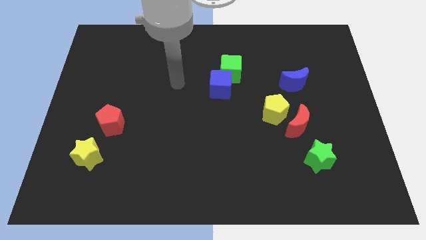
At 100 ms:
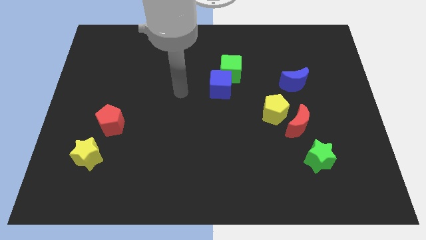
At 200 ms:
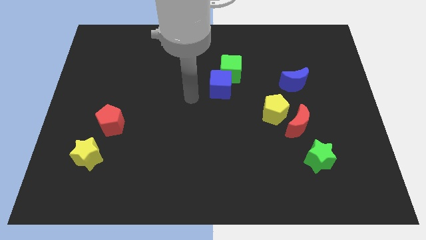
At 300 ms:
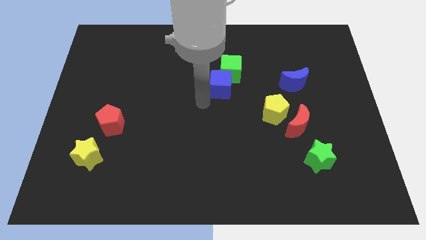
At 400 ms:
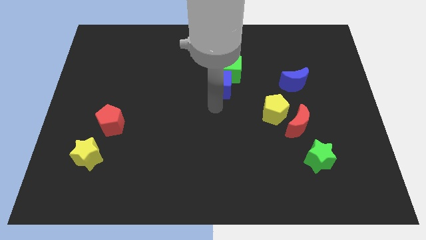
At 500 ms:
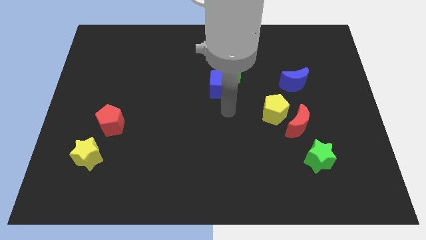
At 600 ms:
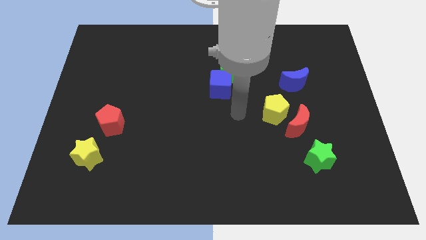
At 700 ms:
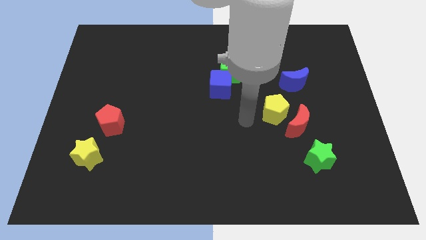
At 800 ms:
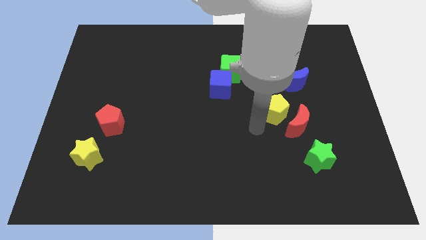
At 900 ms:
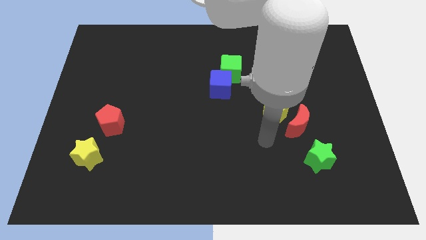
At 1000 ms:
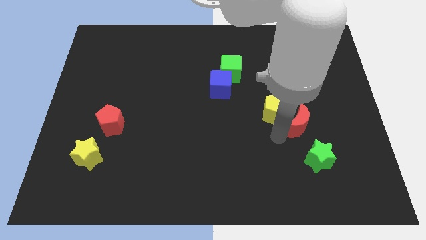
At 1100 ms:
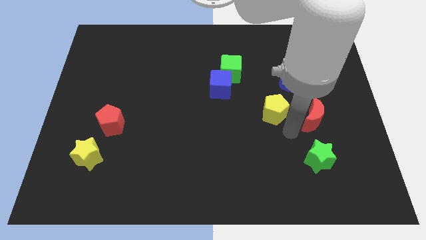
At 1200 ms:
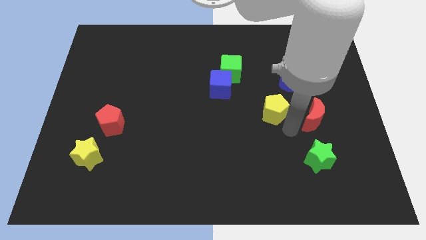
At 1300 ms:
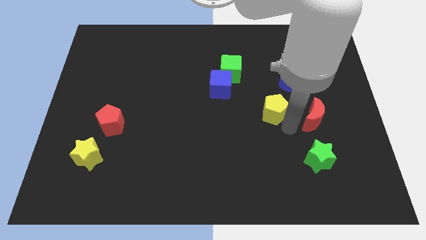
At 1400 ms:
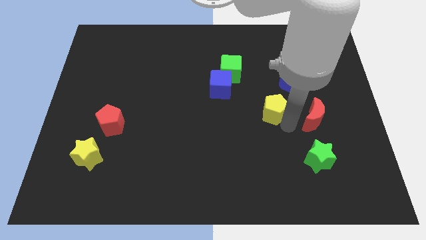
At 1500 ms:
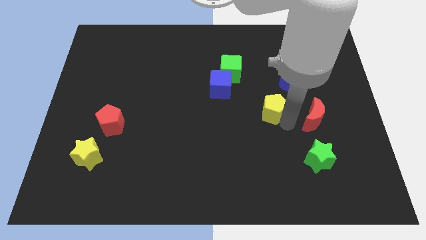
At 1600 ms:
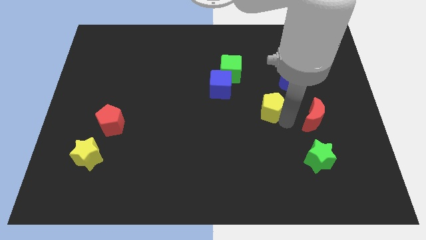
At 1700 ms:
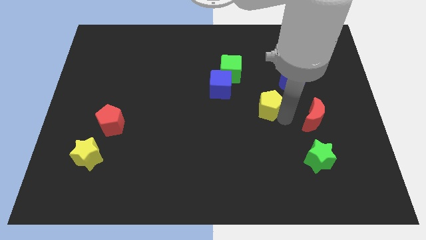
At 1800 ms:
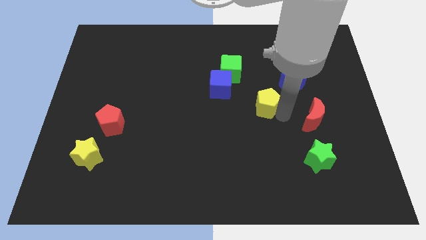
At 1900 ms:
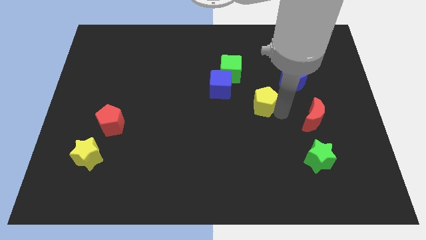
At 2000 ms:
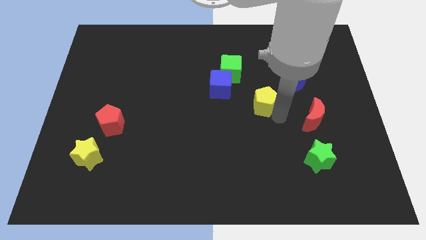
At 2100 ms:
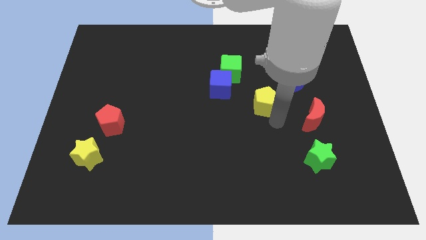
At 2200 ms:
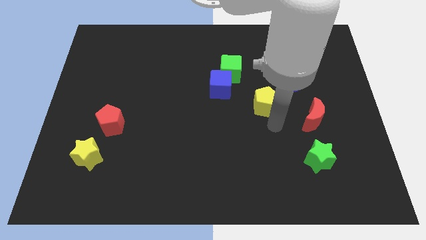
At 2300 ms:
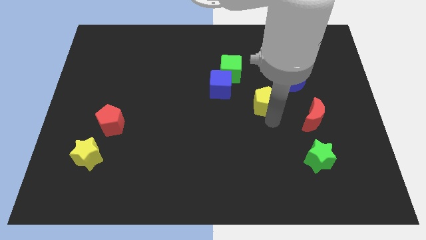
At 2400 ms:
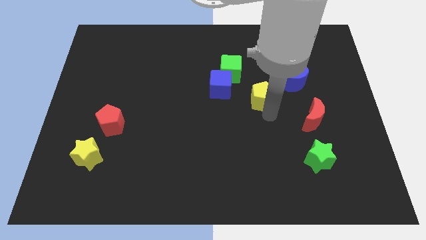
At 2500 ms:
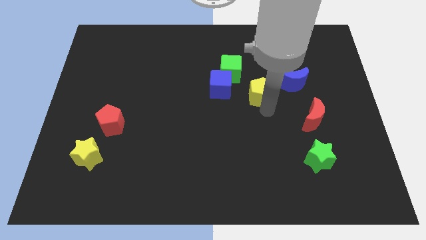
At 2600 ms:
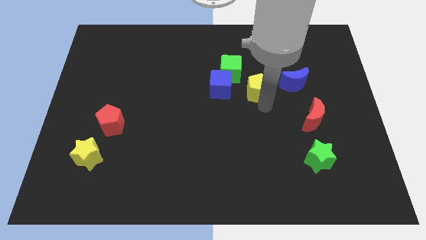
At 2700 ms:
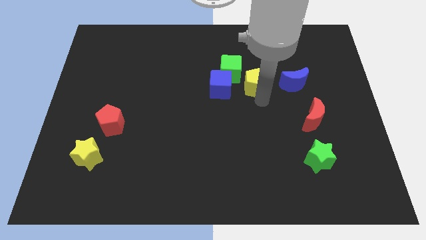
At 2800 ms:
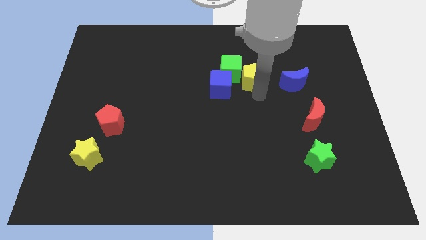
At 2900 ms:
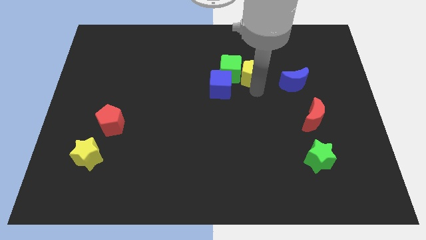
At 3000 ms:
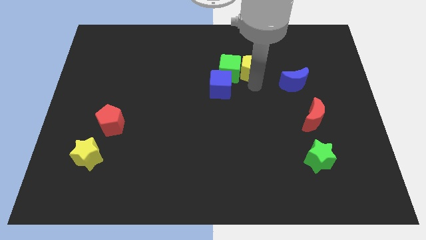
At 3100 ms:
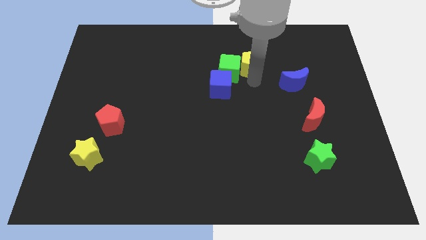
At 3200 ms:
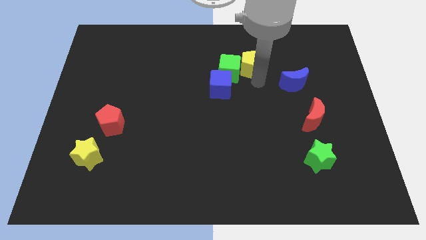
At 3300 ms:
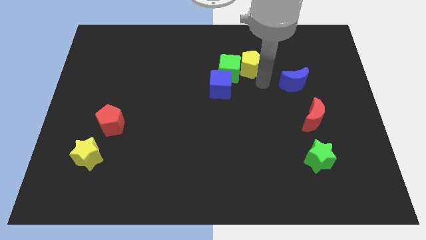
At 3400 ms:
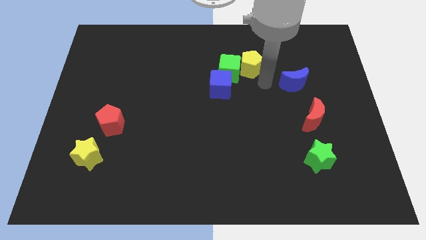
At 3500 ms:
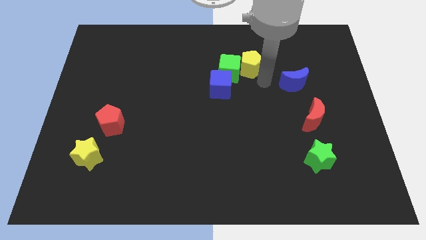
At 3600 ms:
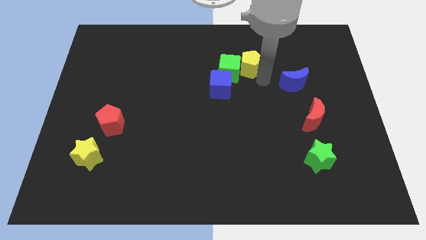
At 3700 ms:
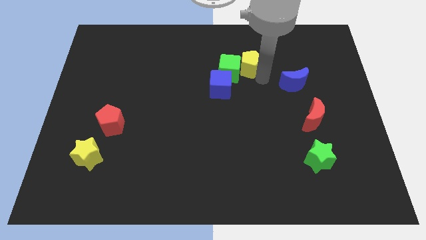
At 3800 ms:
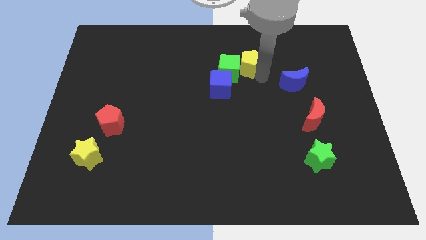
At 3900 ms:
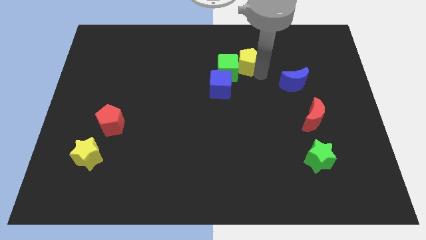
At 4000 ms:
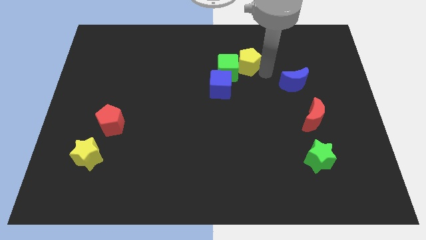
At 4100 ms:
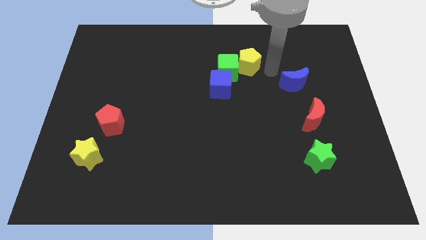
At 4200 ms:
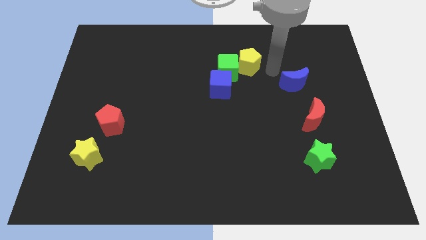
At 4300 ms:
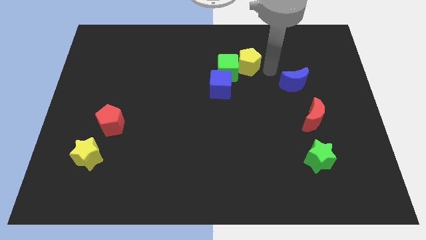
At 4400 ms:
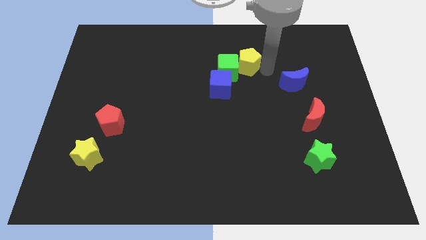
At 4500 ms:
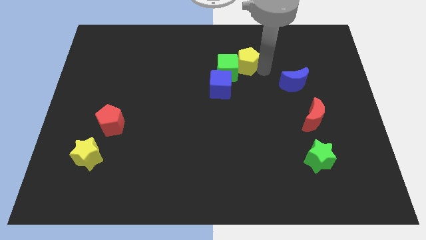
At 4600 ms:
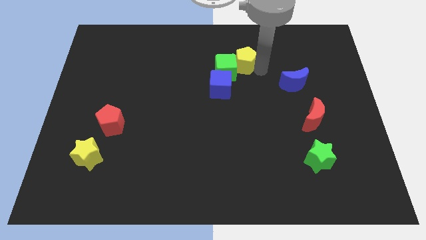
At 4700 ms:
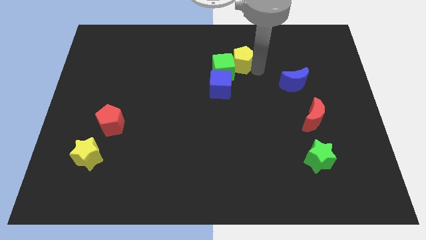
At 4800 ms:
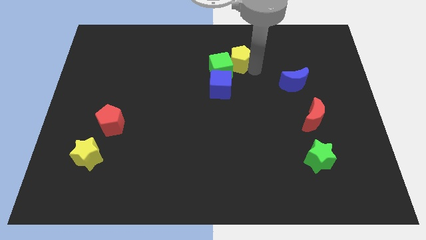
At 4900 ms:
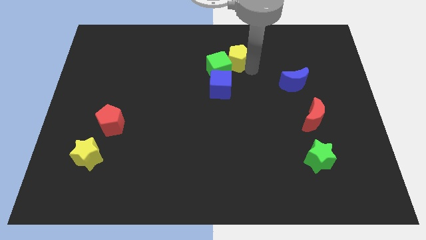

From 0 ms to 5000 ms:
put the yellow pentagon to the top of the blue cube

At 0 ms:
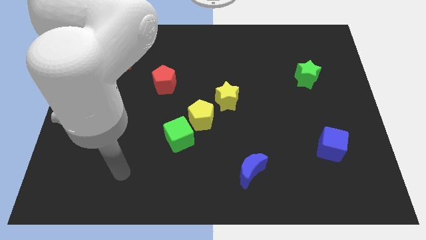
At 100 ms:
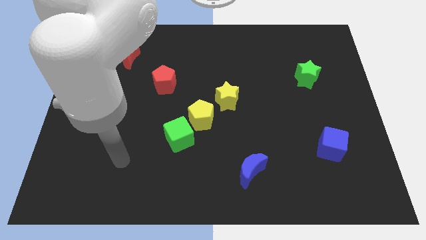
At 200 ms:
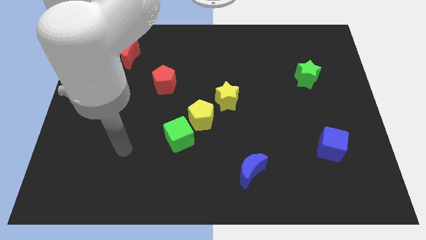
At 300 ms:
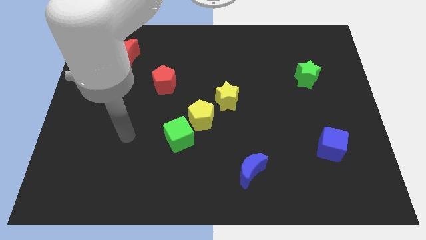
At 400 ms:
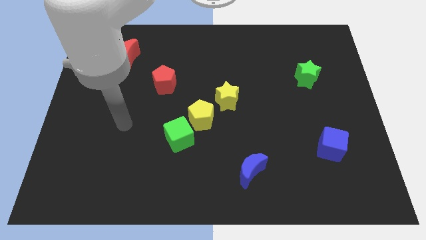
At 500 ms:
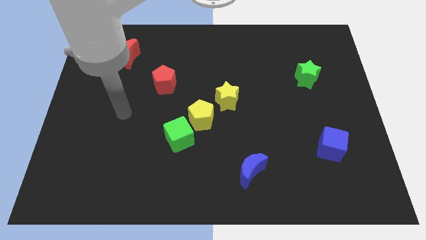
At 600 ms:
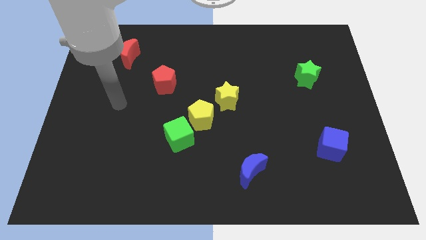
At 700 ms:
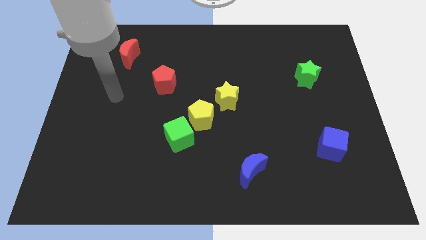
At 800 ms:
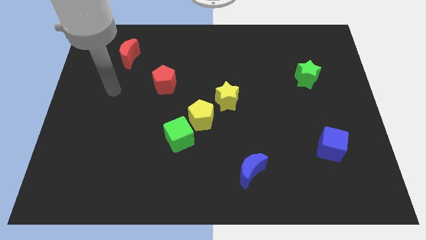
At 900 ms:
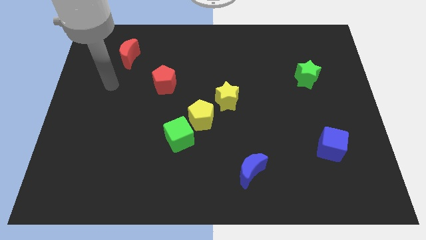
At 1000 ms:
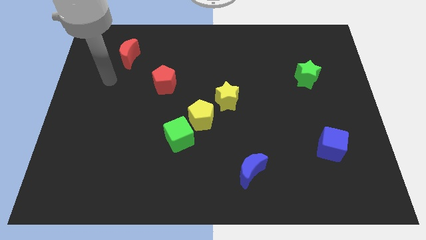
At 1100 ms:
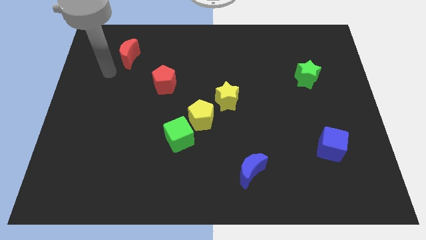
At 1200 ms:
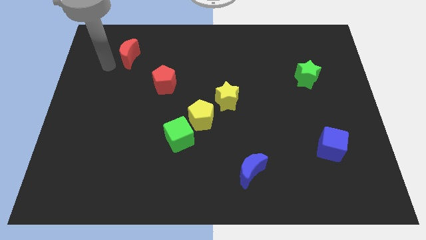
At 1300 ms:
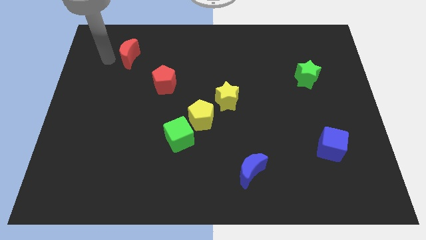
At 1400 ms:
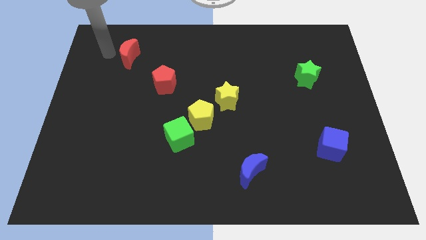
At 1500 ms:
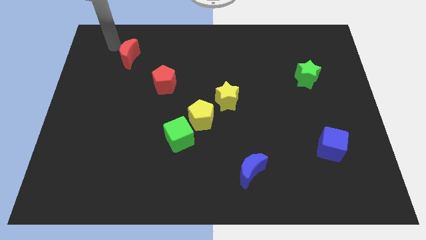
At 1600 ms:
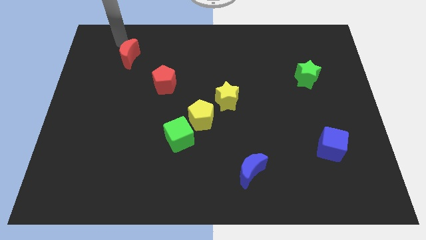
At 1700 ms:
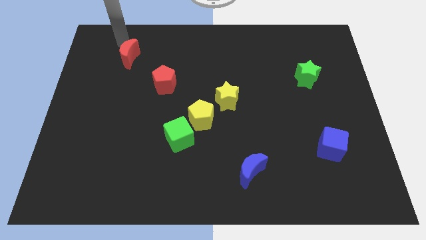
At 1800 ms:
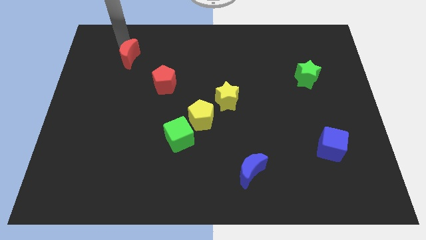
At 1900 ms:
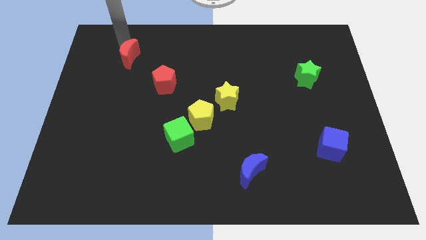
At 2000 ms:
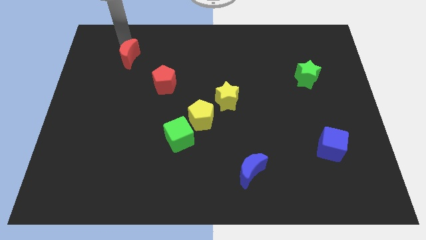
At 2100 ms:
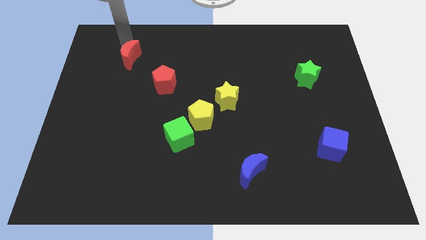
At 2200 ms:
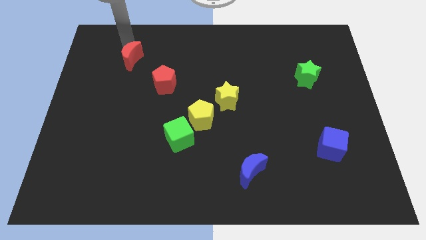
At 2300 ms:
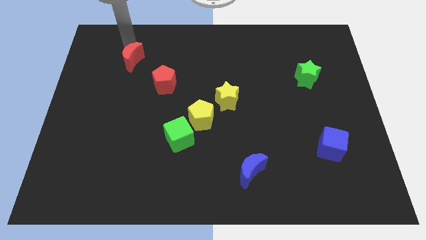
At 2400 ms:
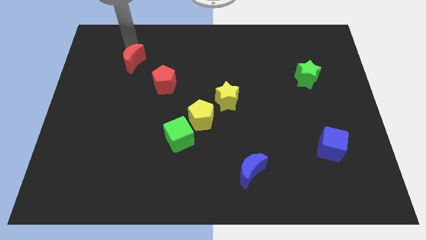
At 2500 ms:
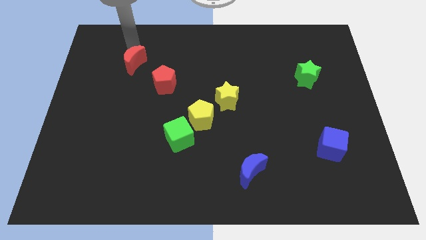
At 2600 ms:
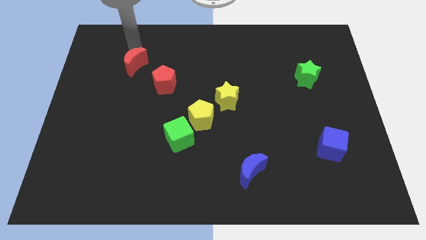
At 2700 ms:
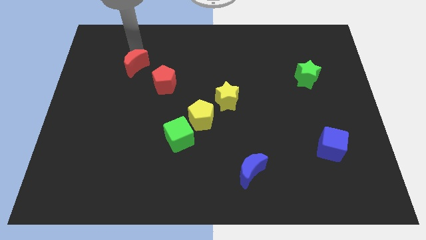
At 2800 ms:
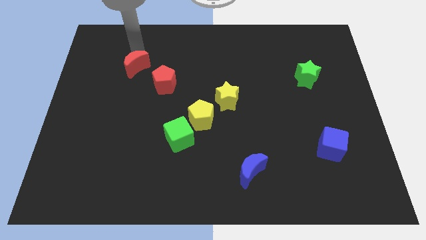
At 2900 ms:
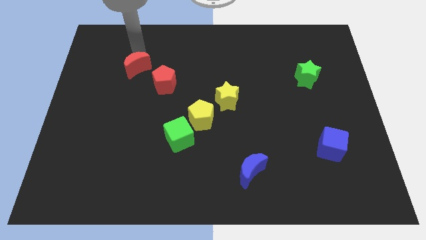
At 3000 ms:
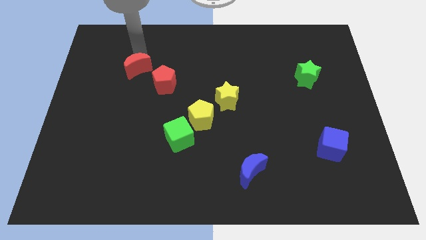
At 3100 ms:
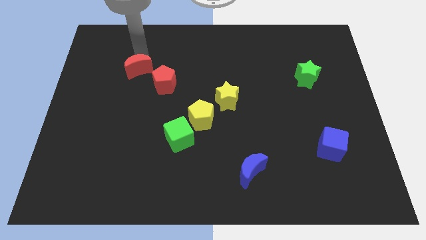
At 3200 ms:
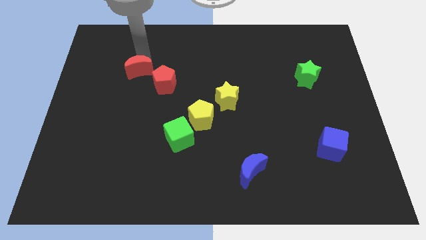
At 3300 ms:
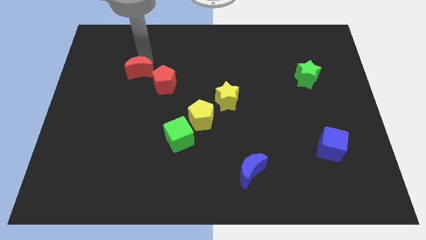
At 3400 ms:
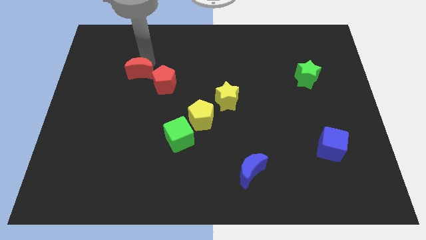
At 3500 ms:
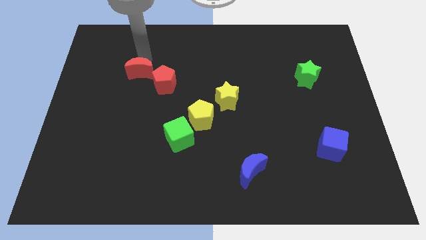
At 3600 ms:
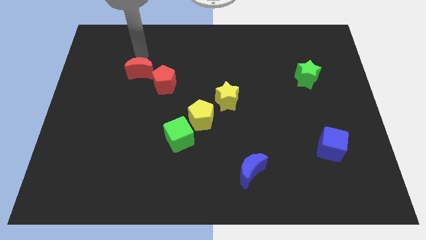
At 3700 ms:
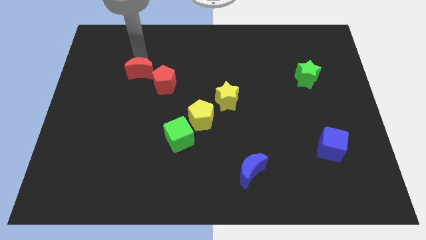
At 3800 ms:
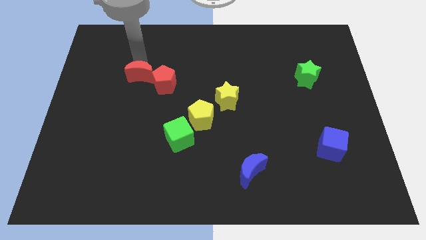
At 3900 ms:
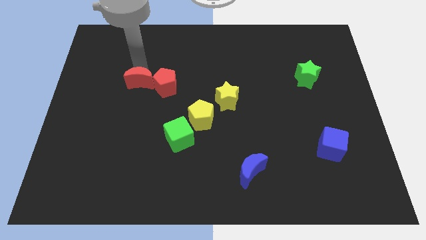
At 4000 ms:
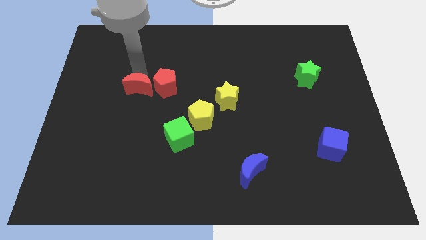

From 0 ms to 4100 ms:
move the red moon to the bottom left of the red pentagon
